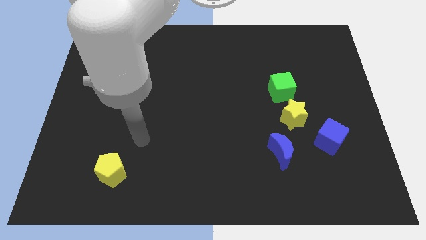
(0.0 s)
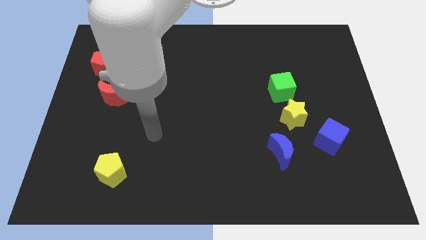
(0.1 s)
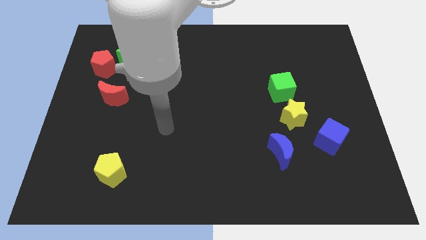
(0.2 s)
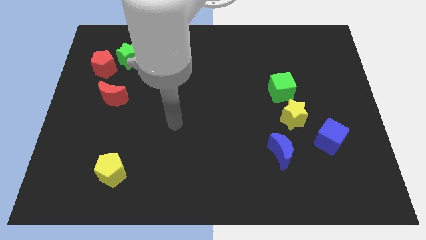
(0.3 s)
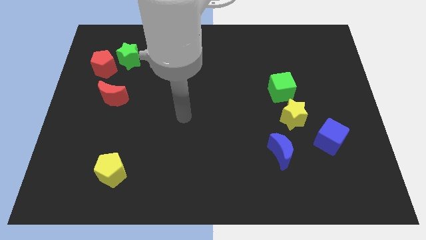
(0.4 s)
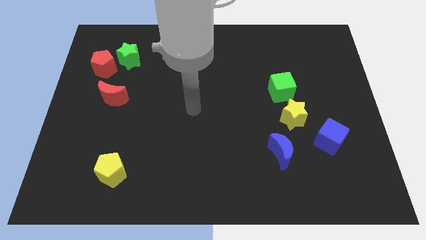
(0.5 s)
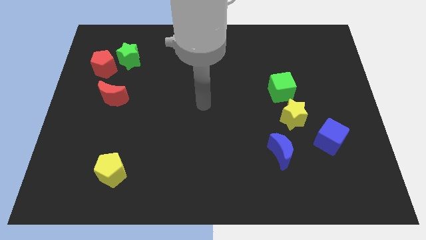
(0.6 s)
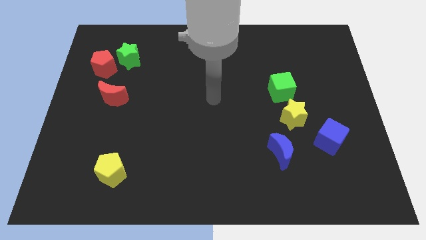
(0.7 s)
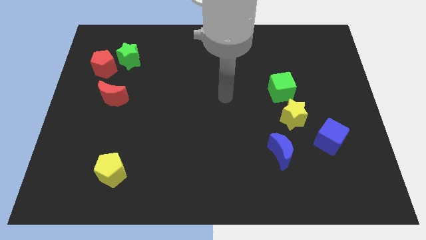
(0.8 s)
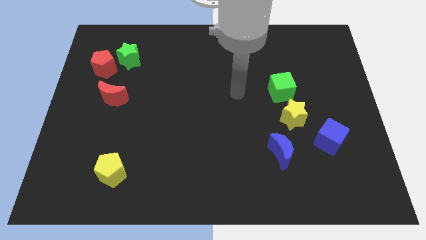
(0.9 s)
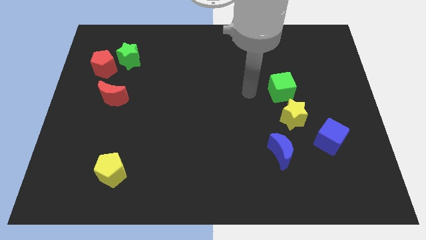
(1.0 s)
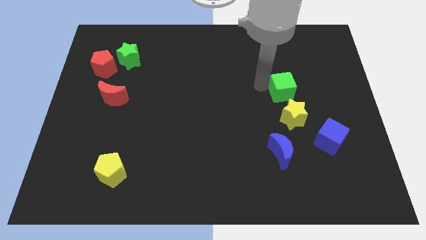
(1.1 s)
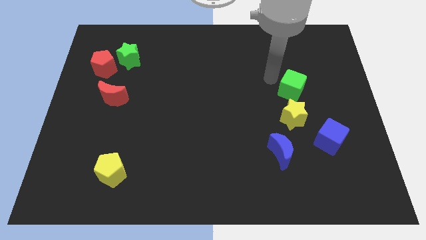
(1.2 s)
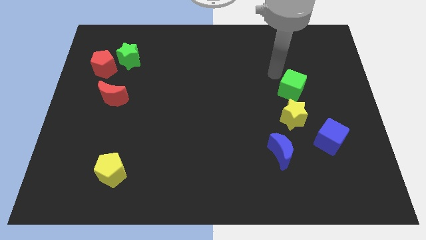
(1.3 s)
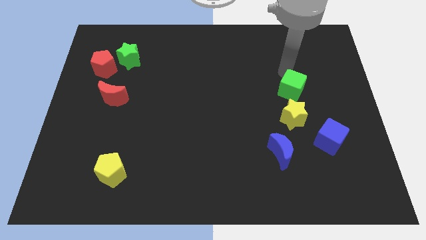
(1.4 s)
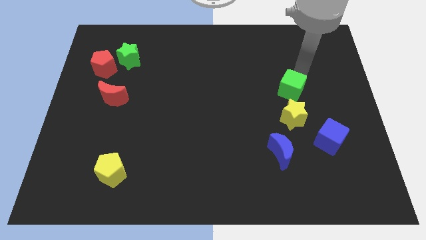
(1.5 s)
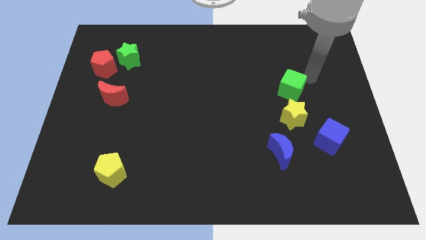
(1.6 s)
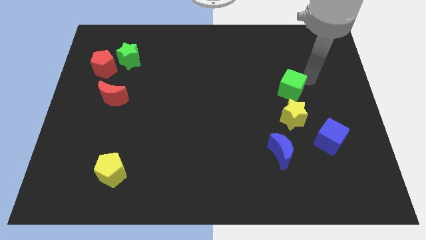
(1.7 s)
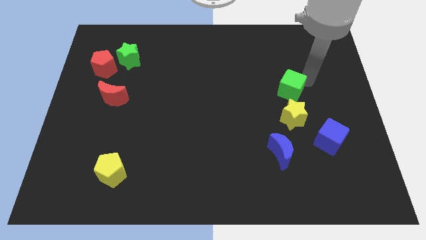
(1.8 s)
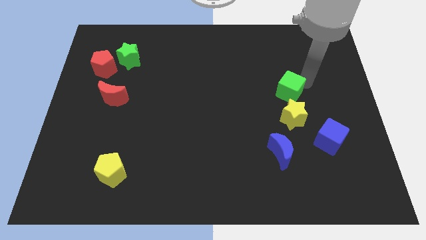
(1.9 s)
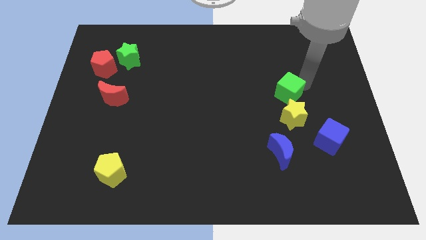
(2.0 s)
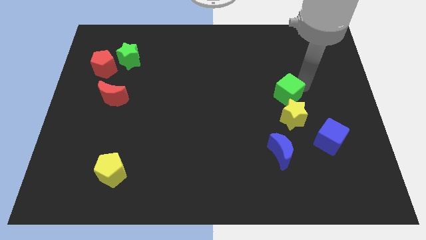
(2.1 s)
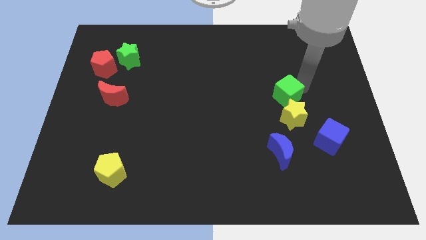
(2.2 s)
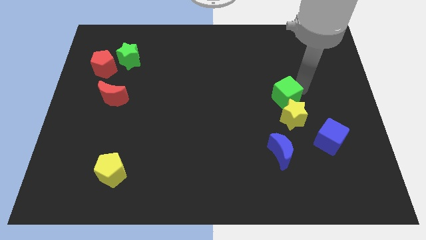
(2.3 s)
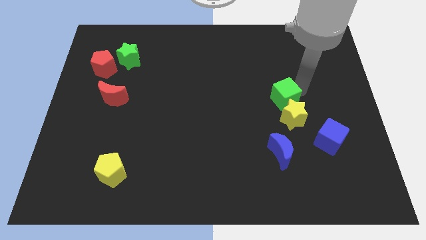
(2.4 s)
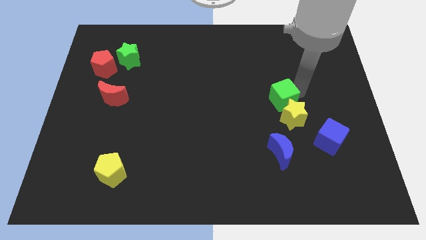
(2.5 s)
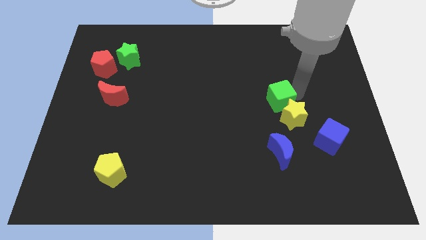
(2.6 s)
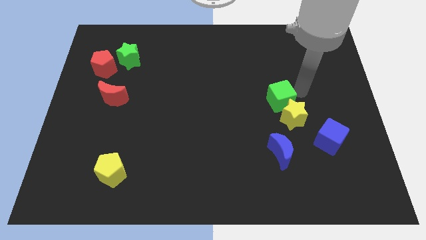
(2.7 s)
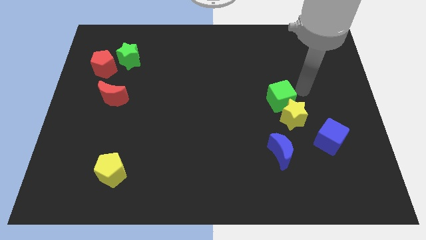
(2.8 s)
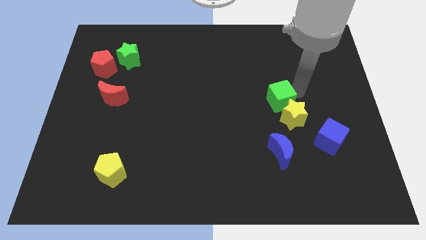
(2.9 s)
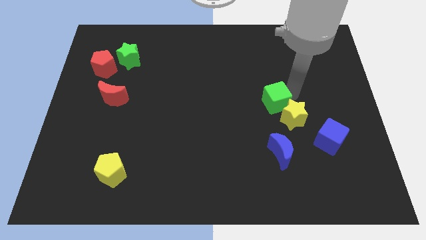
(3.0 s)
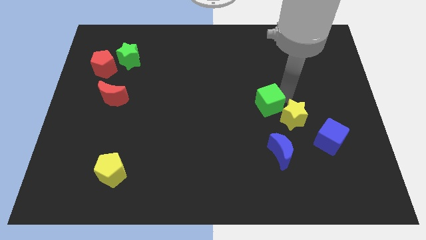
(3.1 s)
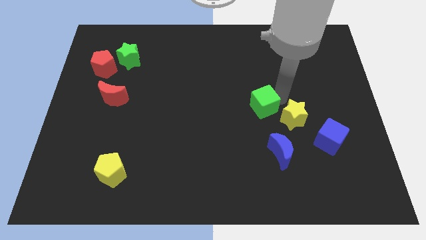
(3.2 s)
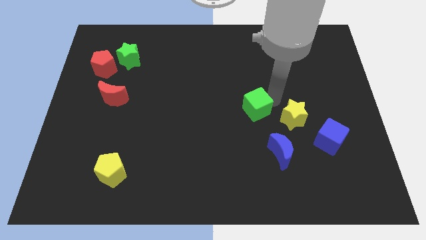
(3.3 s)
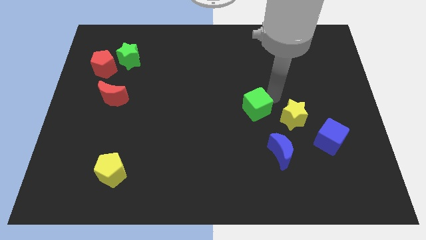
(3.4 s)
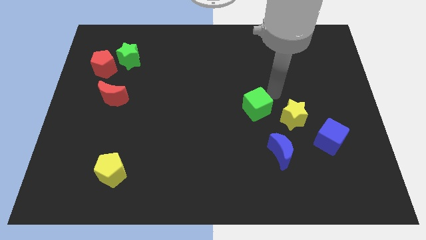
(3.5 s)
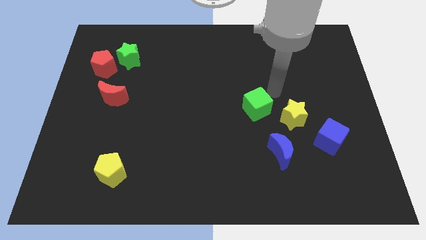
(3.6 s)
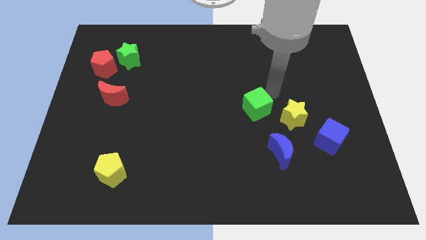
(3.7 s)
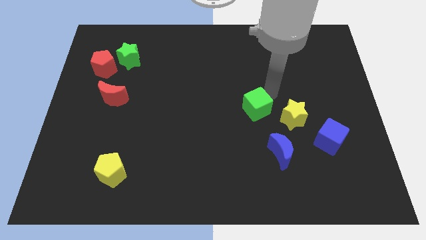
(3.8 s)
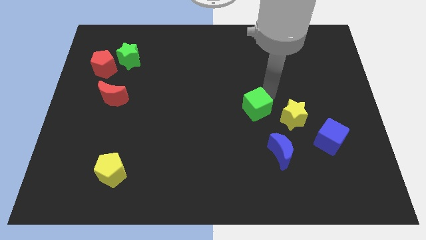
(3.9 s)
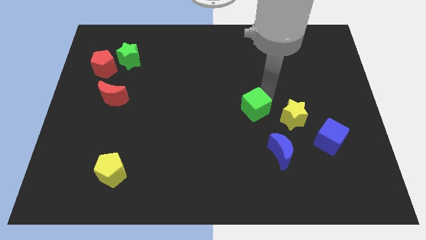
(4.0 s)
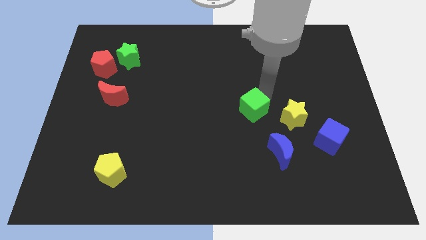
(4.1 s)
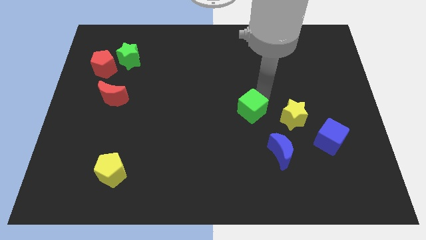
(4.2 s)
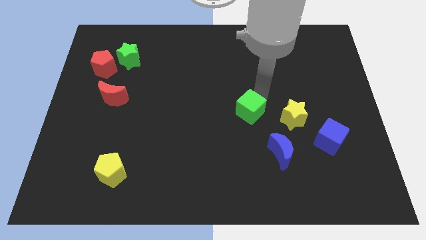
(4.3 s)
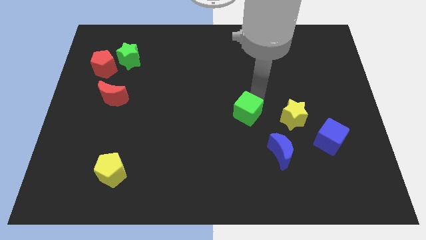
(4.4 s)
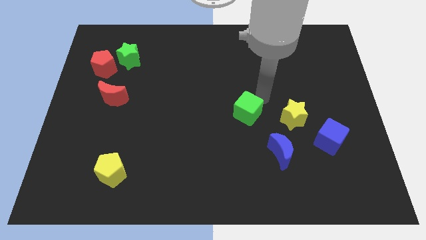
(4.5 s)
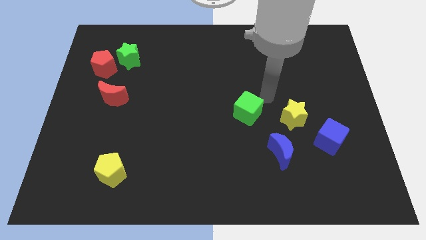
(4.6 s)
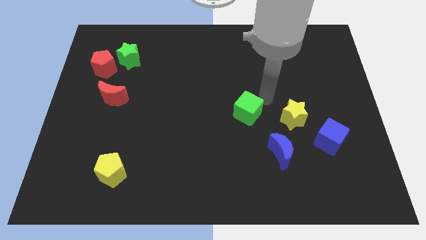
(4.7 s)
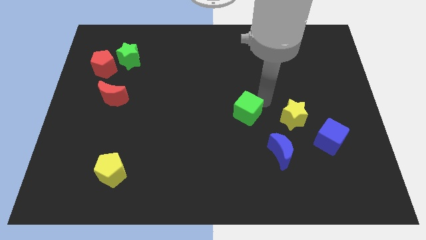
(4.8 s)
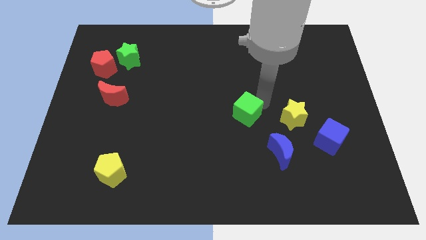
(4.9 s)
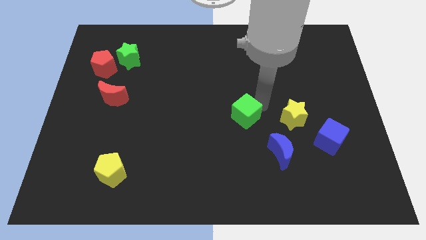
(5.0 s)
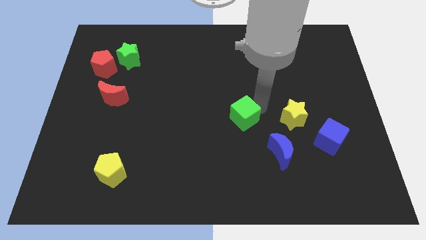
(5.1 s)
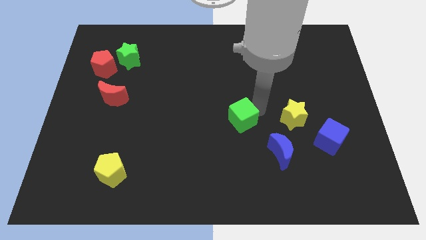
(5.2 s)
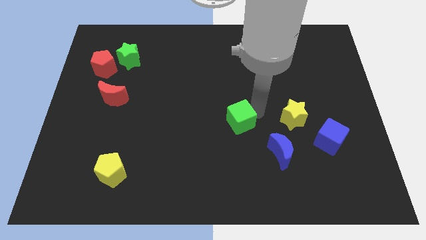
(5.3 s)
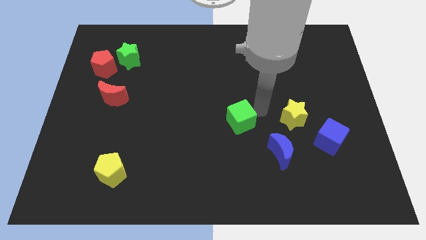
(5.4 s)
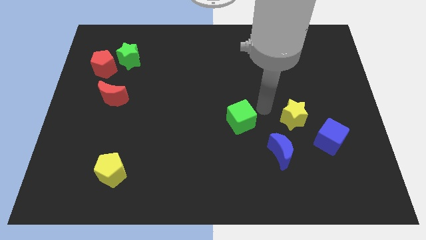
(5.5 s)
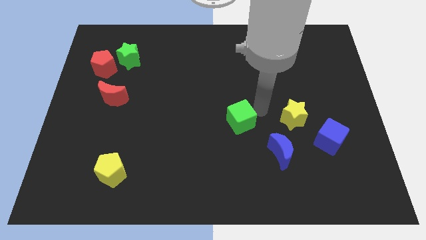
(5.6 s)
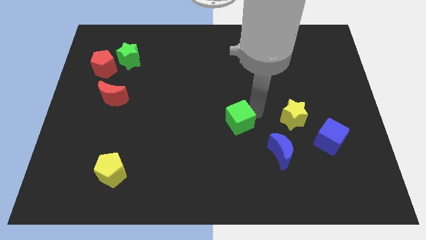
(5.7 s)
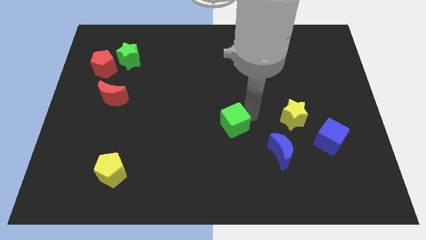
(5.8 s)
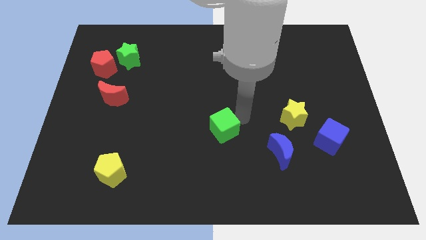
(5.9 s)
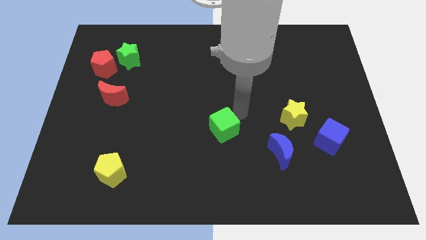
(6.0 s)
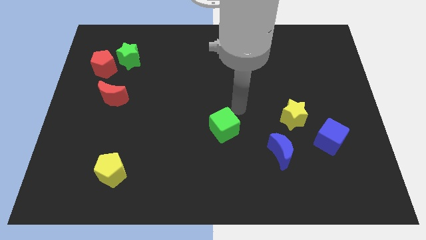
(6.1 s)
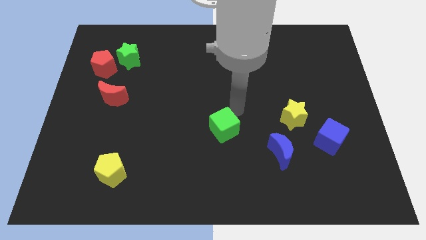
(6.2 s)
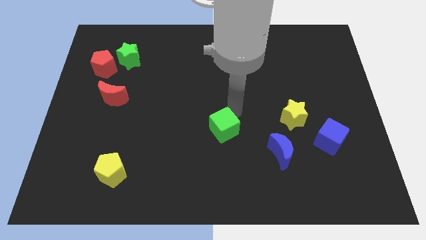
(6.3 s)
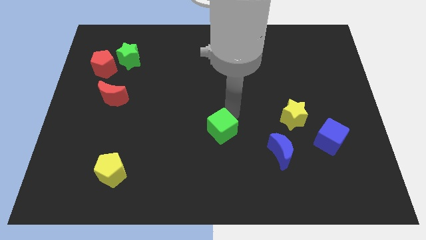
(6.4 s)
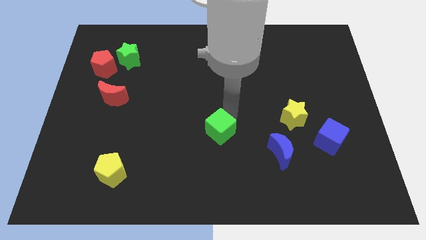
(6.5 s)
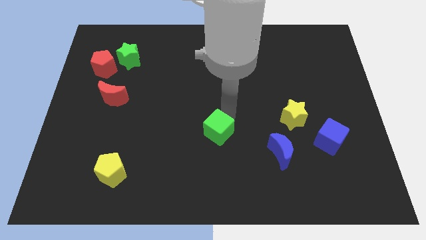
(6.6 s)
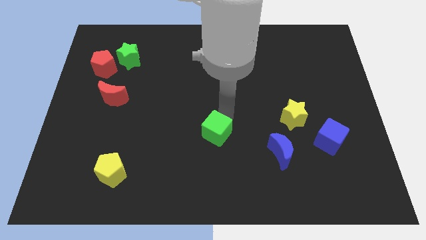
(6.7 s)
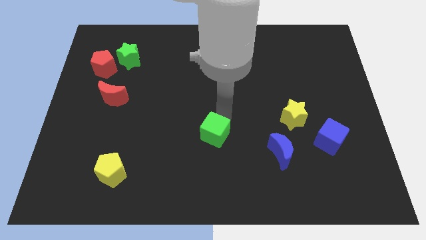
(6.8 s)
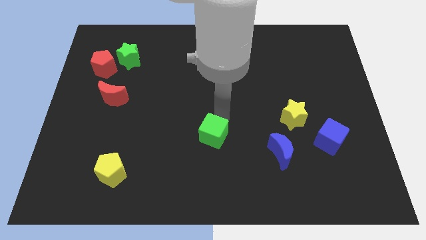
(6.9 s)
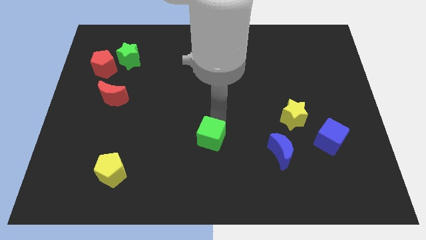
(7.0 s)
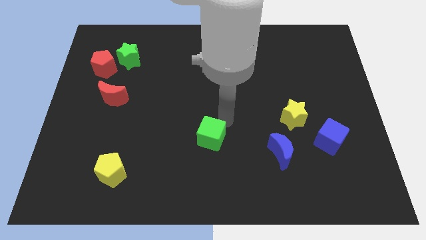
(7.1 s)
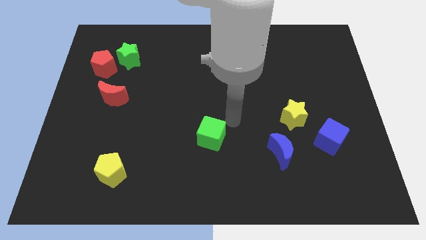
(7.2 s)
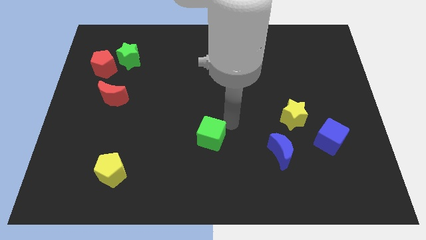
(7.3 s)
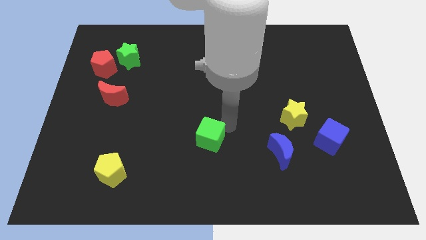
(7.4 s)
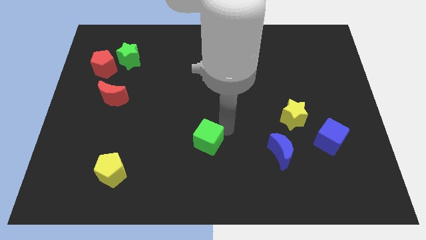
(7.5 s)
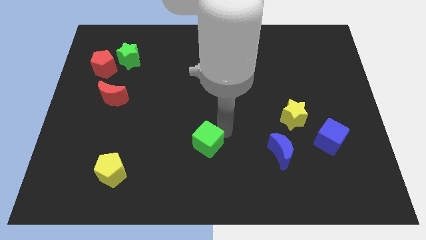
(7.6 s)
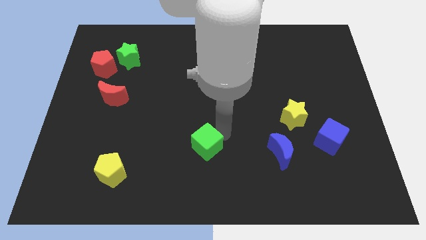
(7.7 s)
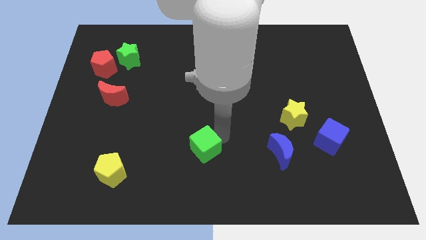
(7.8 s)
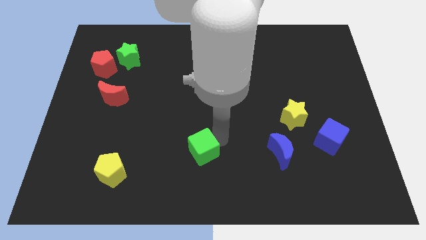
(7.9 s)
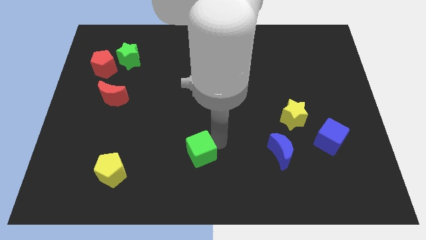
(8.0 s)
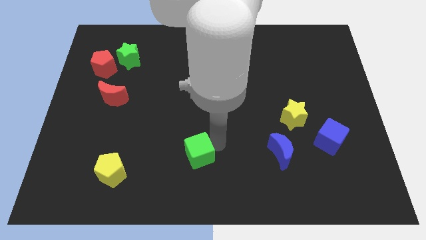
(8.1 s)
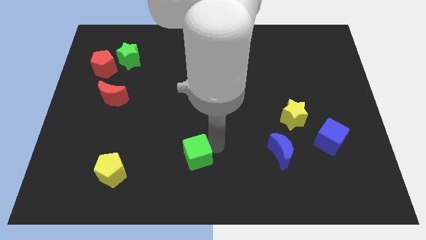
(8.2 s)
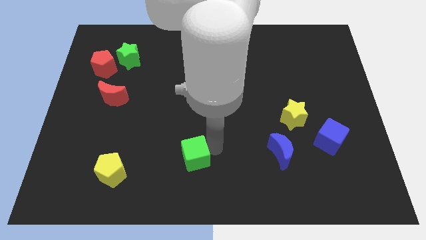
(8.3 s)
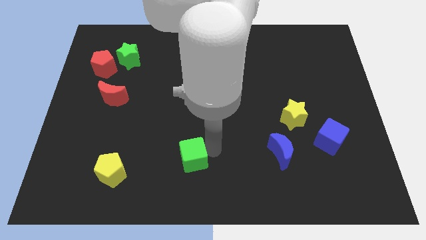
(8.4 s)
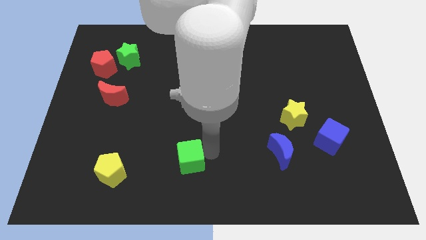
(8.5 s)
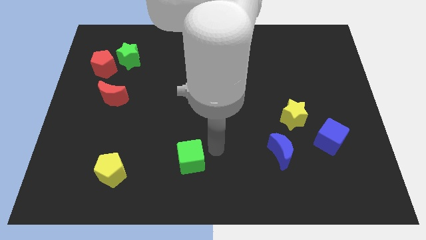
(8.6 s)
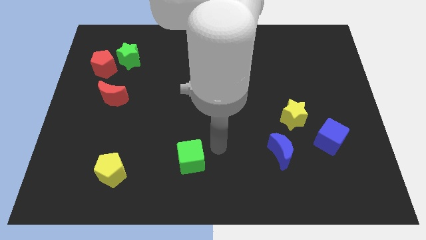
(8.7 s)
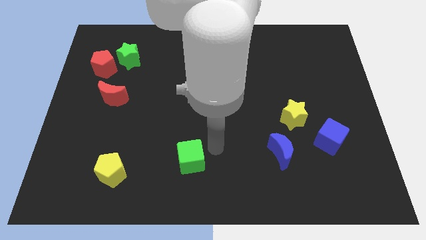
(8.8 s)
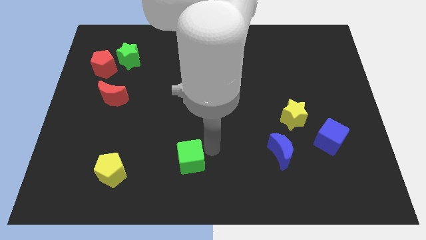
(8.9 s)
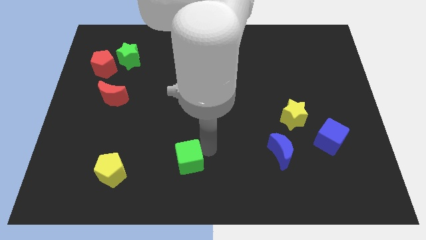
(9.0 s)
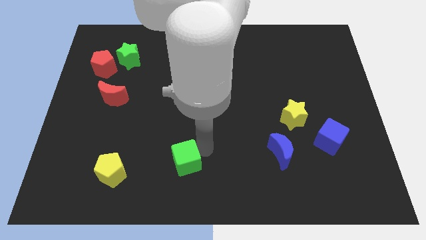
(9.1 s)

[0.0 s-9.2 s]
push the green cube just right of the yellow pentagon
